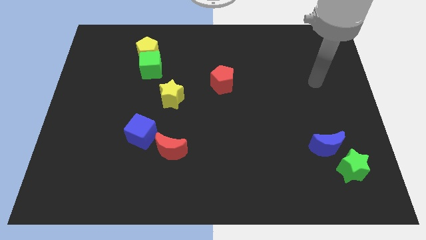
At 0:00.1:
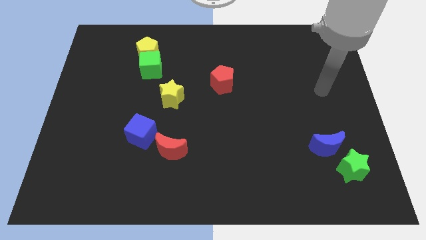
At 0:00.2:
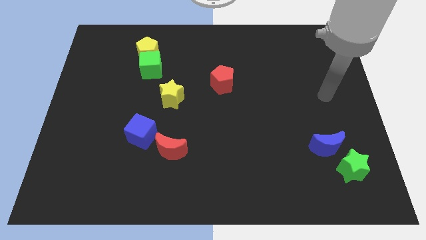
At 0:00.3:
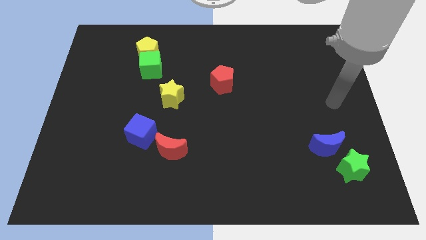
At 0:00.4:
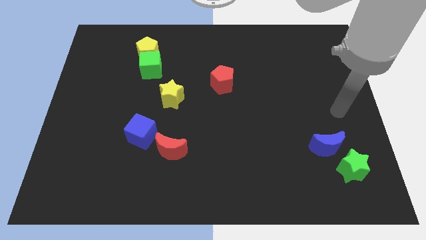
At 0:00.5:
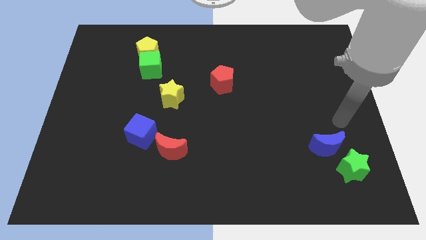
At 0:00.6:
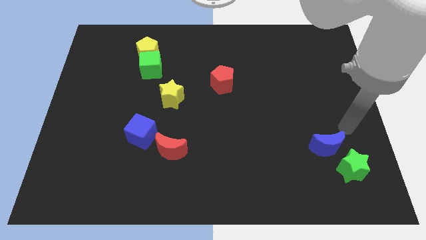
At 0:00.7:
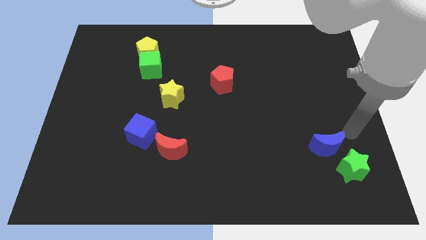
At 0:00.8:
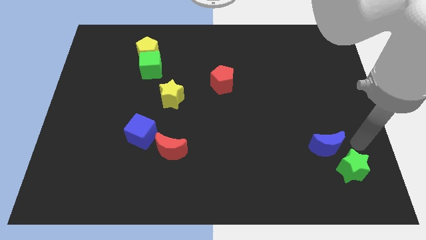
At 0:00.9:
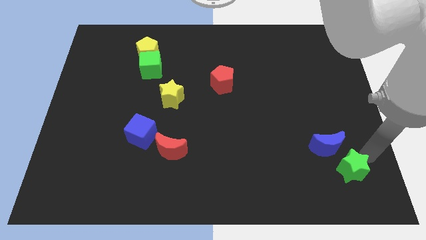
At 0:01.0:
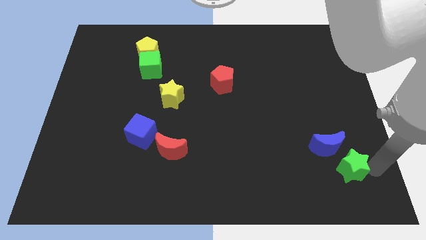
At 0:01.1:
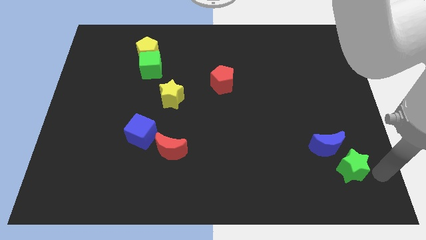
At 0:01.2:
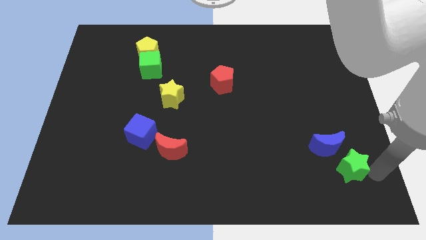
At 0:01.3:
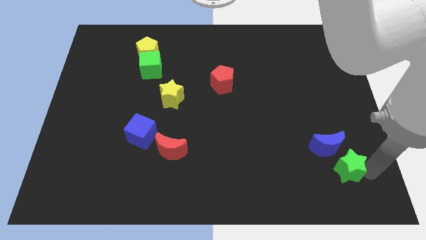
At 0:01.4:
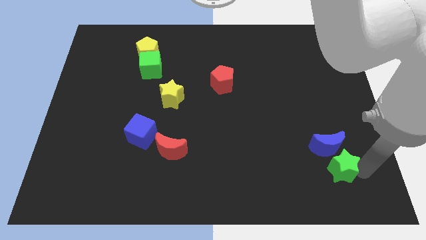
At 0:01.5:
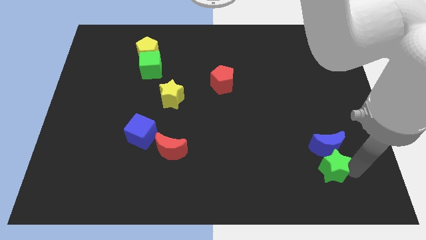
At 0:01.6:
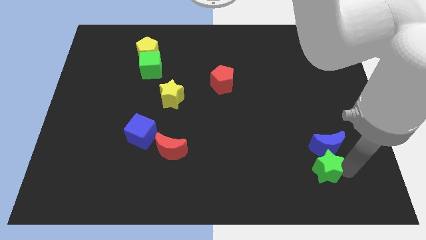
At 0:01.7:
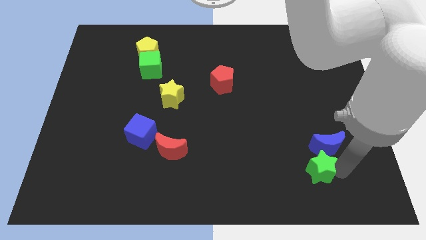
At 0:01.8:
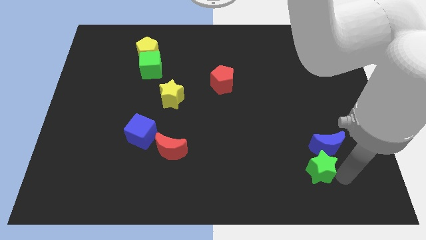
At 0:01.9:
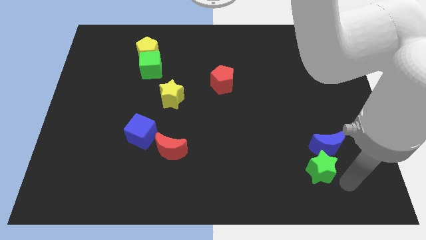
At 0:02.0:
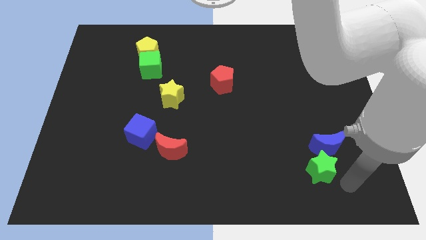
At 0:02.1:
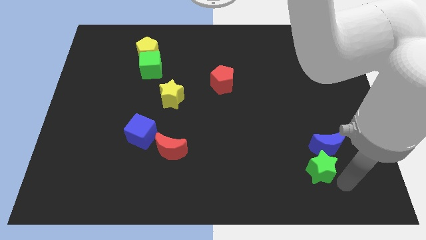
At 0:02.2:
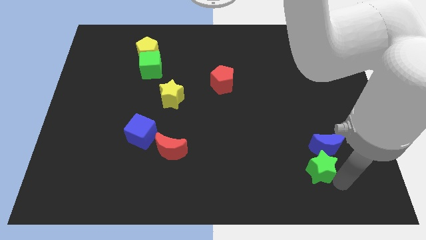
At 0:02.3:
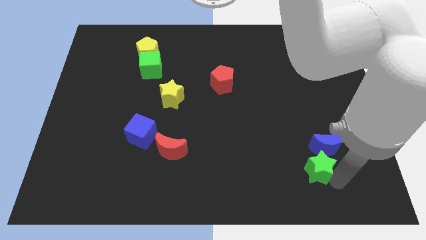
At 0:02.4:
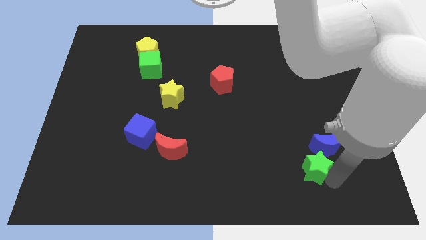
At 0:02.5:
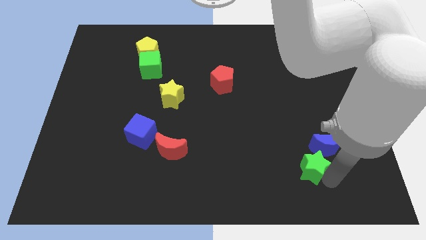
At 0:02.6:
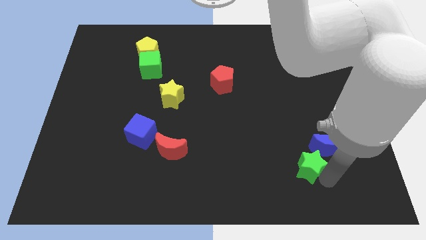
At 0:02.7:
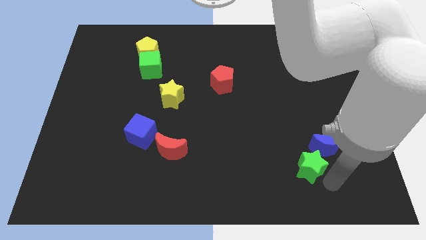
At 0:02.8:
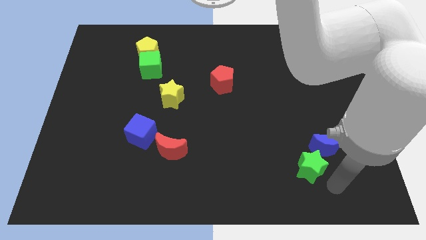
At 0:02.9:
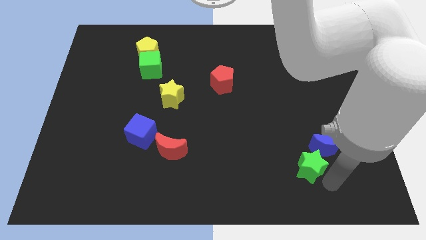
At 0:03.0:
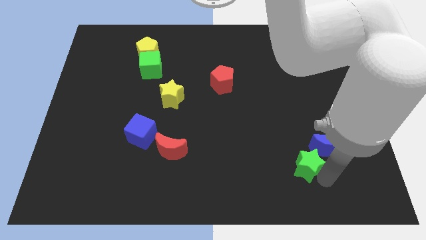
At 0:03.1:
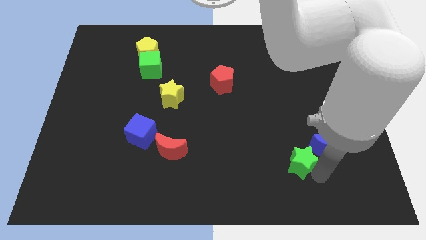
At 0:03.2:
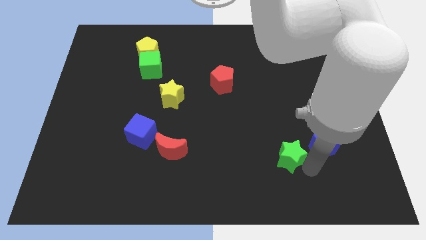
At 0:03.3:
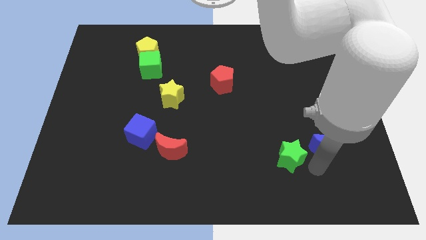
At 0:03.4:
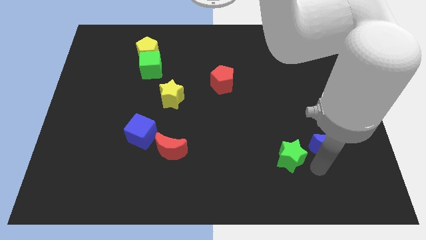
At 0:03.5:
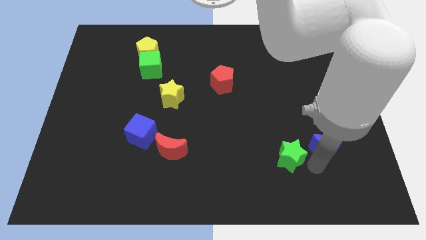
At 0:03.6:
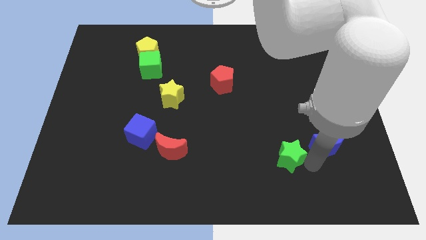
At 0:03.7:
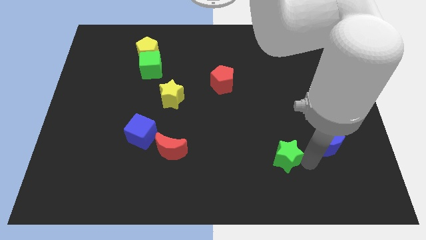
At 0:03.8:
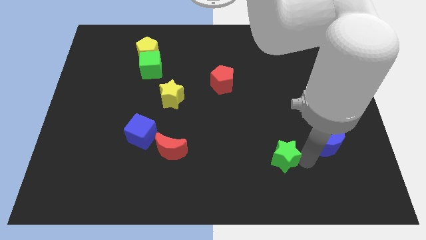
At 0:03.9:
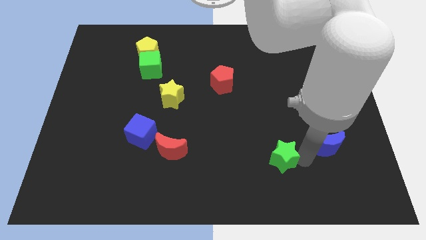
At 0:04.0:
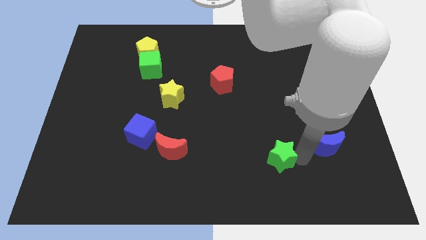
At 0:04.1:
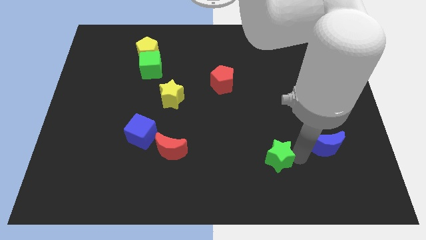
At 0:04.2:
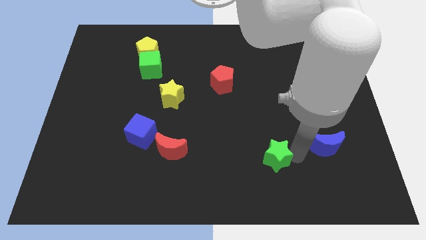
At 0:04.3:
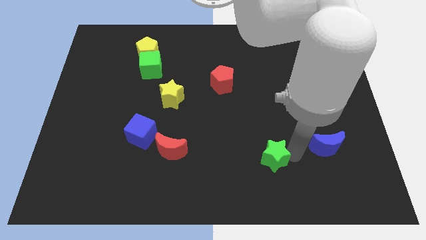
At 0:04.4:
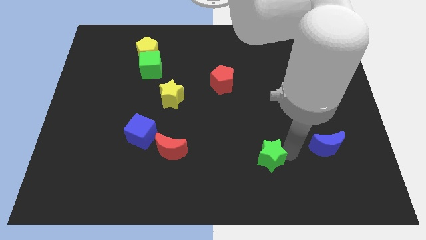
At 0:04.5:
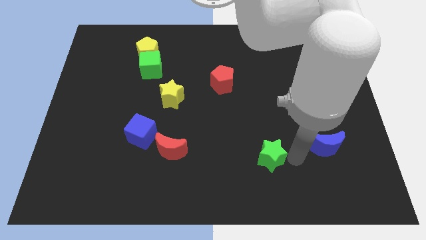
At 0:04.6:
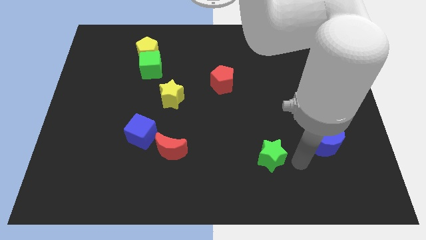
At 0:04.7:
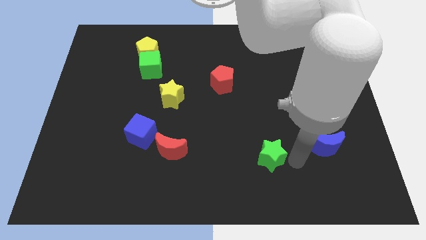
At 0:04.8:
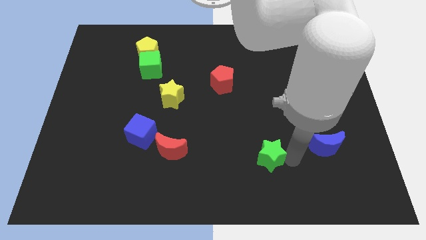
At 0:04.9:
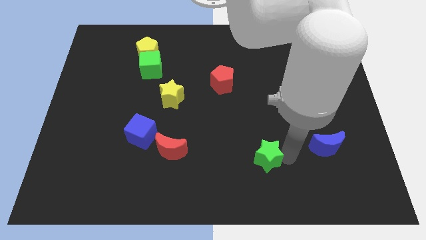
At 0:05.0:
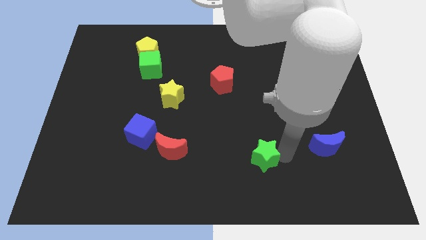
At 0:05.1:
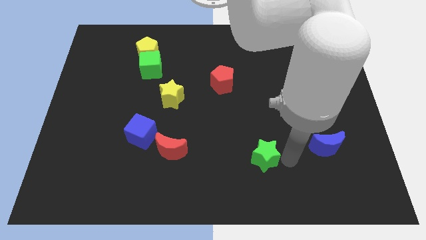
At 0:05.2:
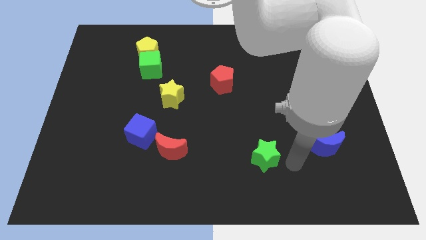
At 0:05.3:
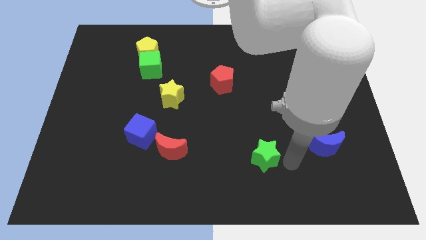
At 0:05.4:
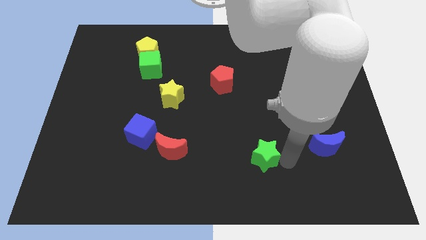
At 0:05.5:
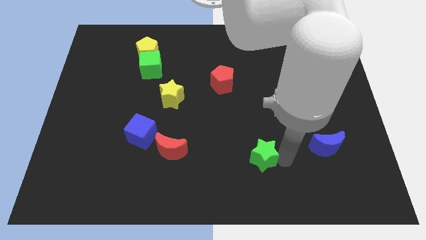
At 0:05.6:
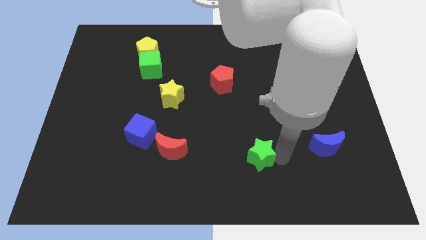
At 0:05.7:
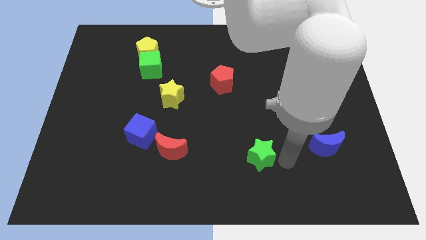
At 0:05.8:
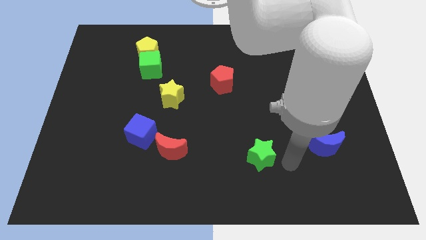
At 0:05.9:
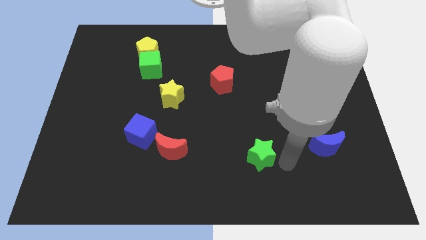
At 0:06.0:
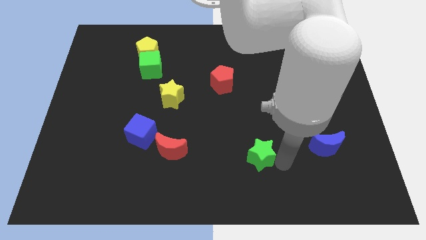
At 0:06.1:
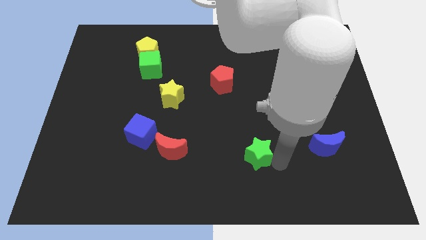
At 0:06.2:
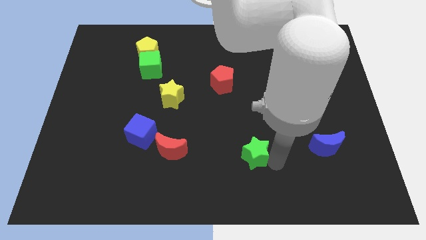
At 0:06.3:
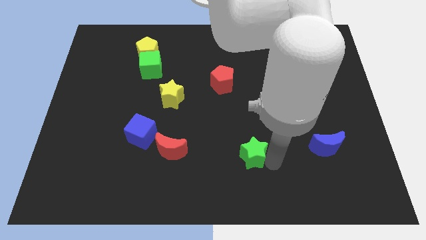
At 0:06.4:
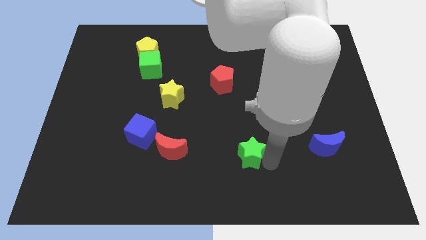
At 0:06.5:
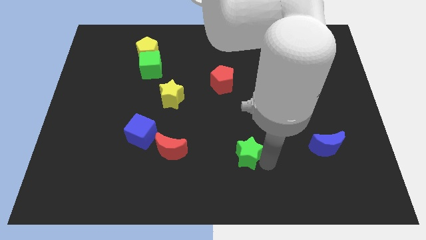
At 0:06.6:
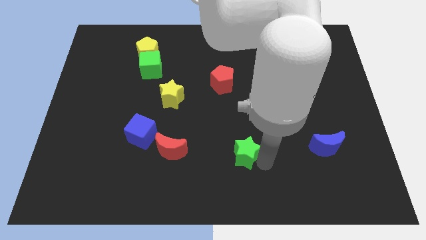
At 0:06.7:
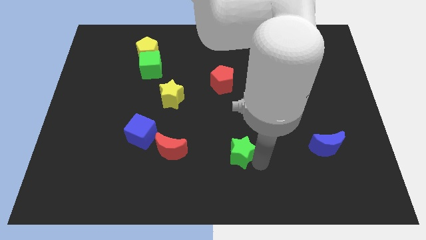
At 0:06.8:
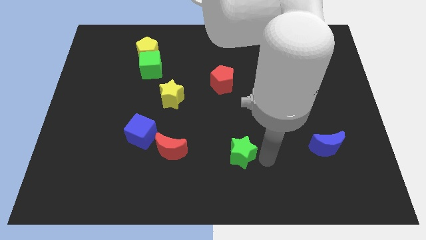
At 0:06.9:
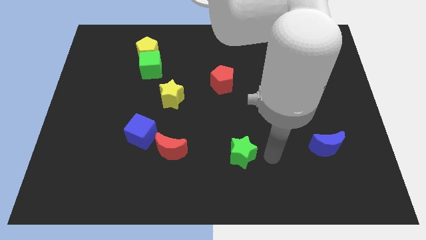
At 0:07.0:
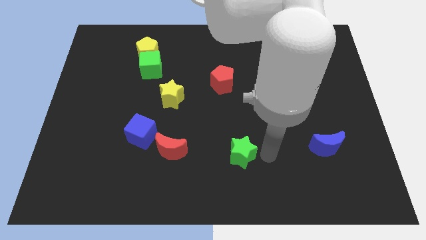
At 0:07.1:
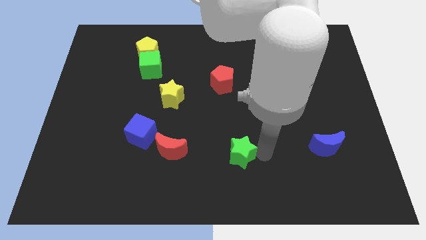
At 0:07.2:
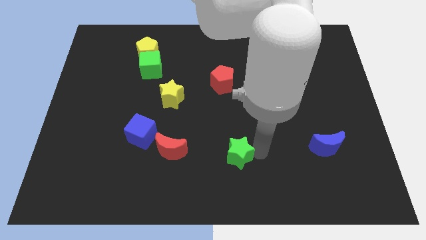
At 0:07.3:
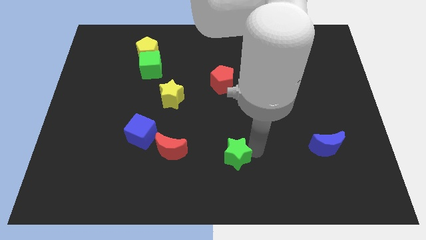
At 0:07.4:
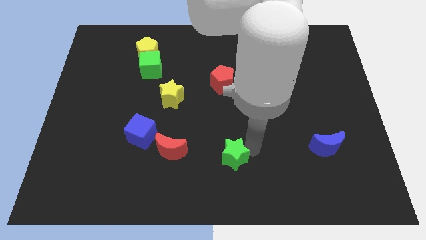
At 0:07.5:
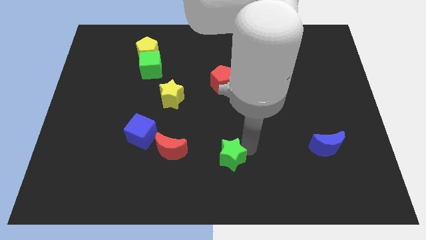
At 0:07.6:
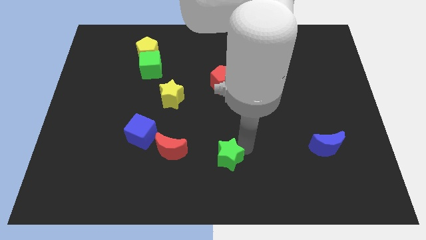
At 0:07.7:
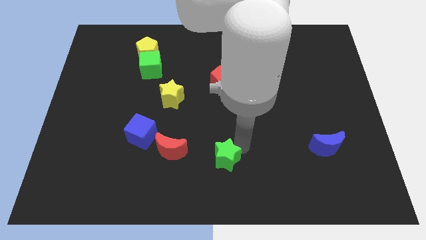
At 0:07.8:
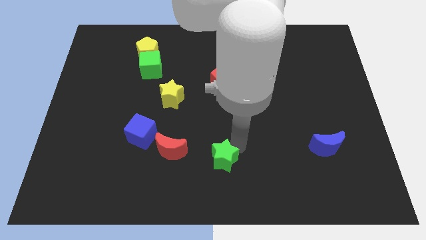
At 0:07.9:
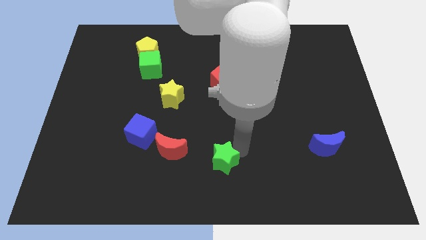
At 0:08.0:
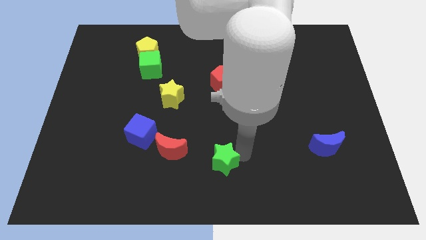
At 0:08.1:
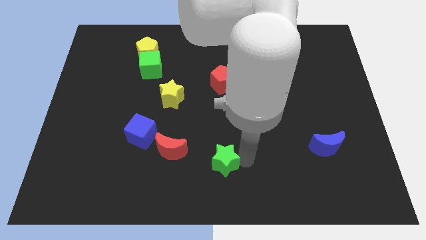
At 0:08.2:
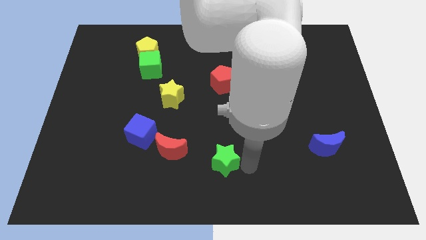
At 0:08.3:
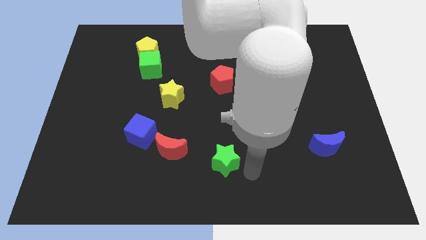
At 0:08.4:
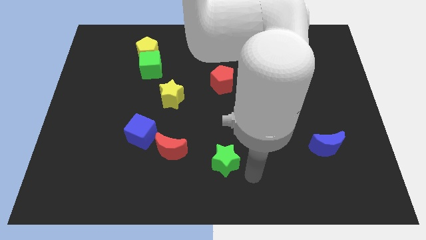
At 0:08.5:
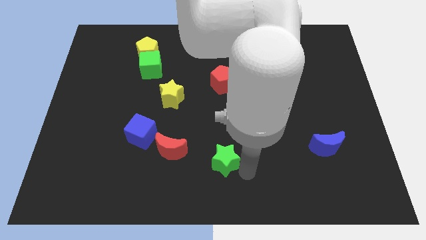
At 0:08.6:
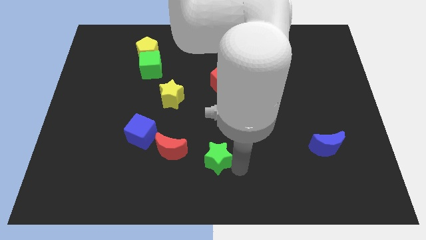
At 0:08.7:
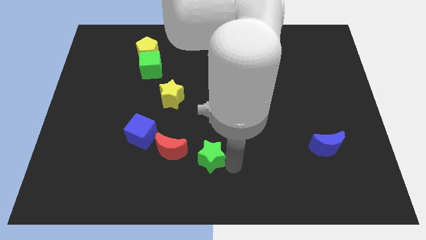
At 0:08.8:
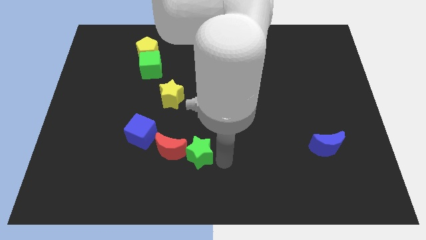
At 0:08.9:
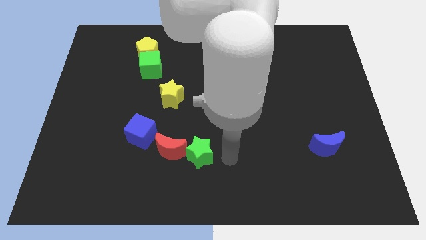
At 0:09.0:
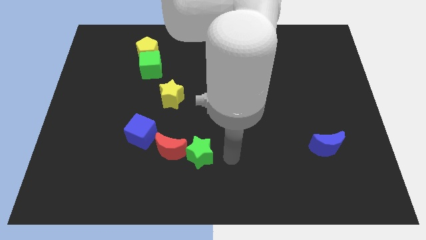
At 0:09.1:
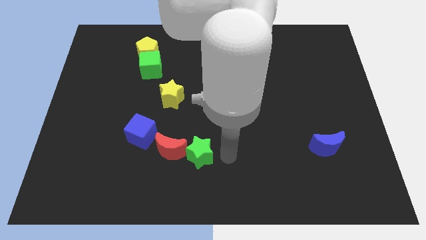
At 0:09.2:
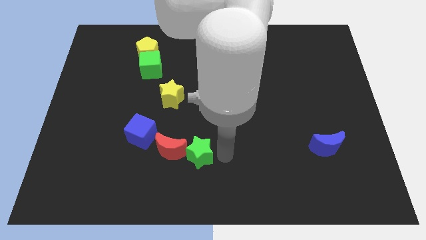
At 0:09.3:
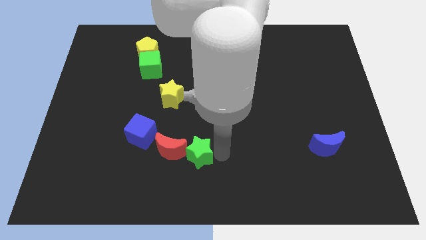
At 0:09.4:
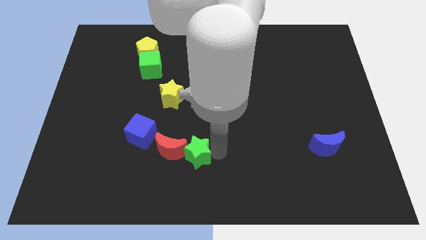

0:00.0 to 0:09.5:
put the green star close to the red moon
